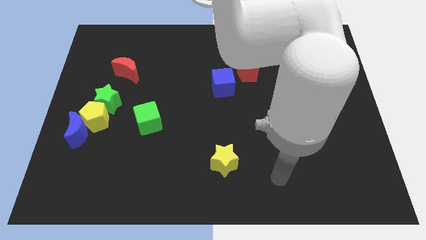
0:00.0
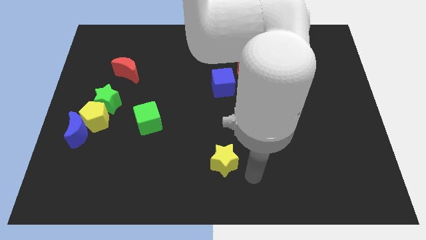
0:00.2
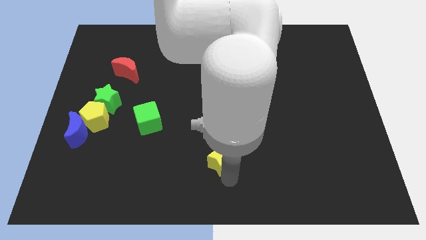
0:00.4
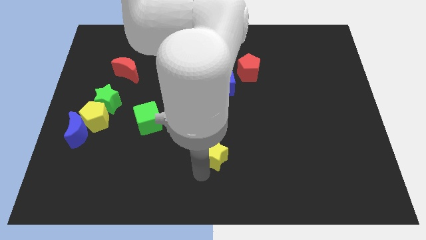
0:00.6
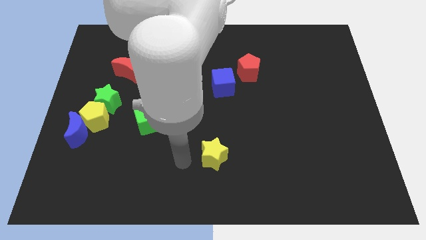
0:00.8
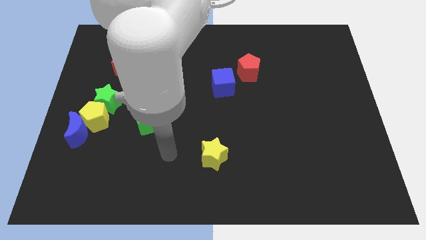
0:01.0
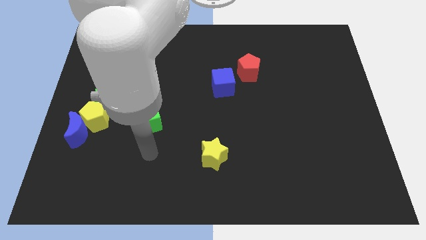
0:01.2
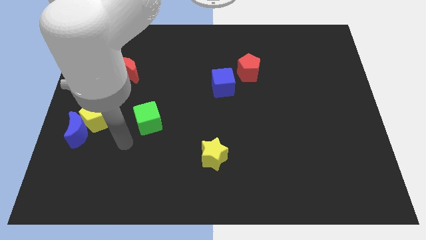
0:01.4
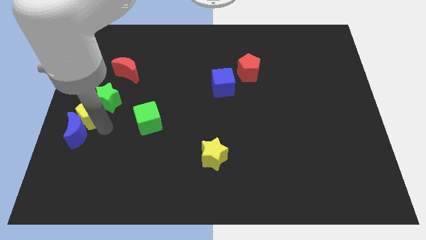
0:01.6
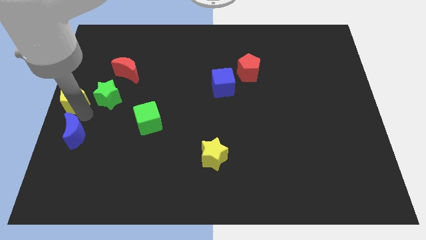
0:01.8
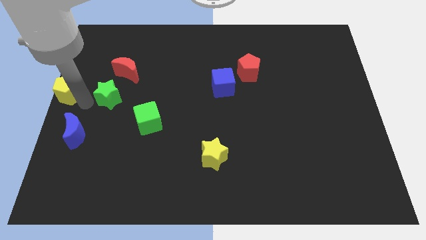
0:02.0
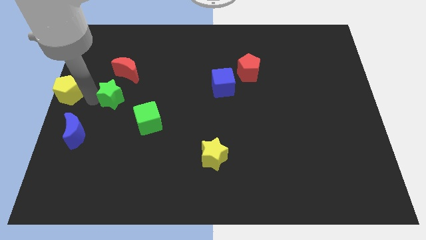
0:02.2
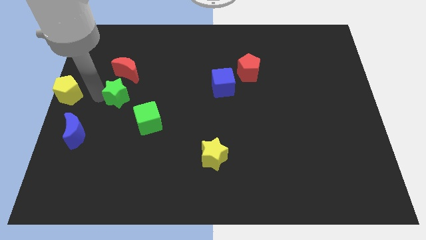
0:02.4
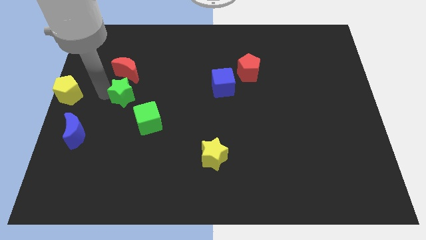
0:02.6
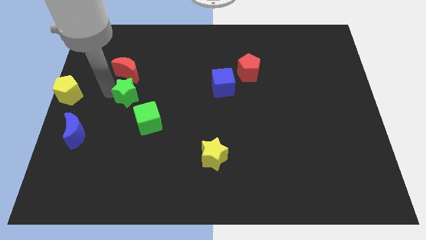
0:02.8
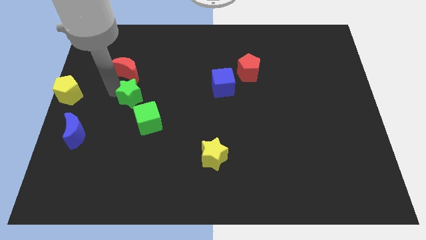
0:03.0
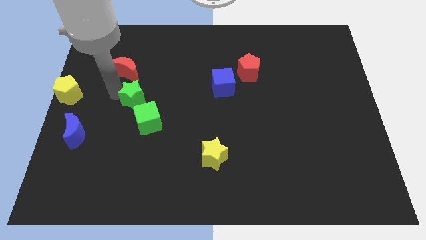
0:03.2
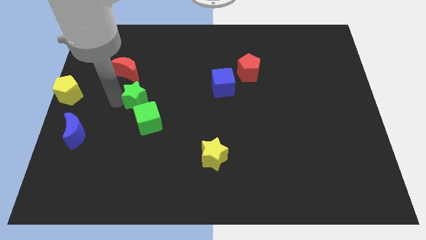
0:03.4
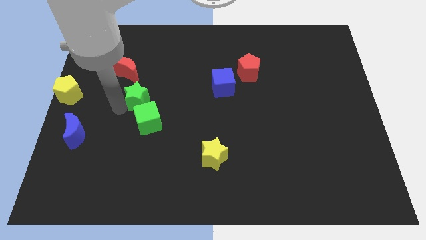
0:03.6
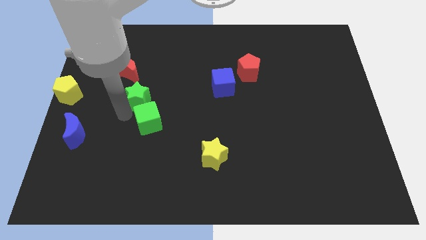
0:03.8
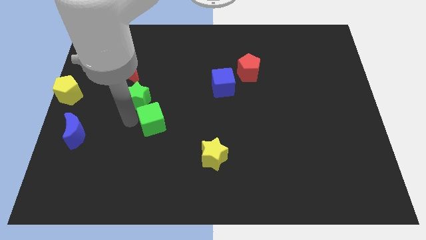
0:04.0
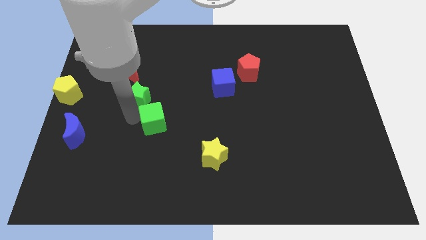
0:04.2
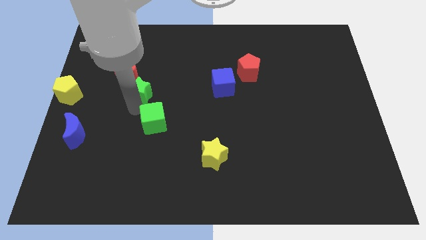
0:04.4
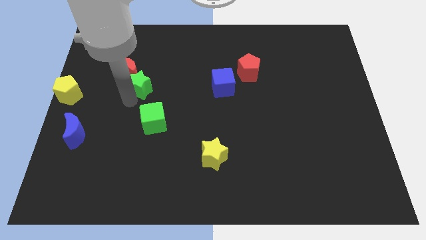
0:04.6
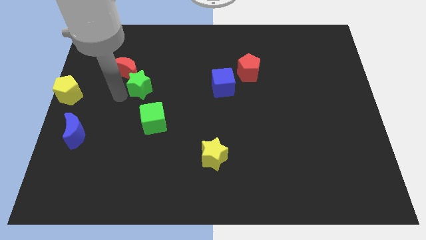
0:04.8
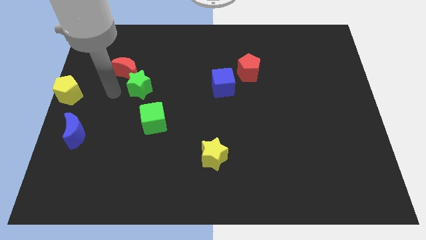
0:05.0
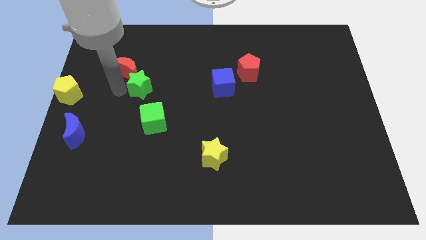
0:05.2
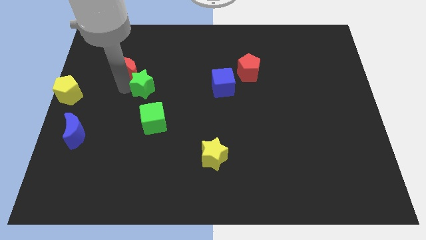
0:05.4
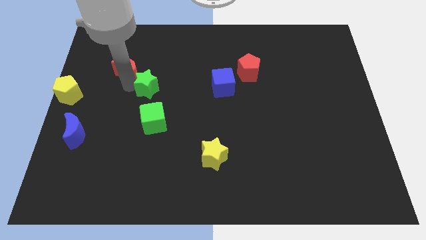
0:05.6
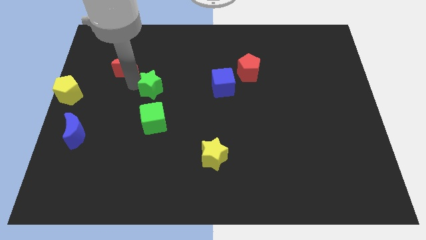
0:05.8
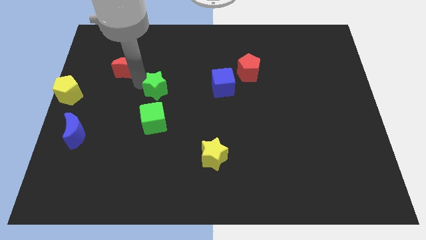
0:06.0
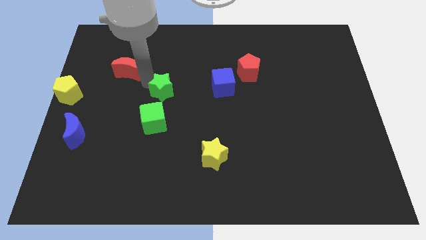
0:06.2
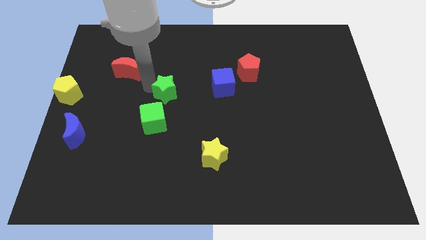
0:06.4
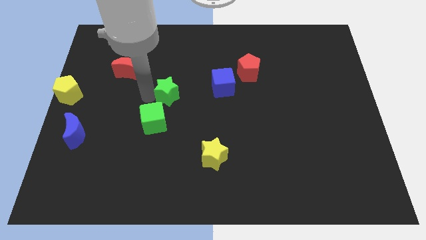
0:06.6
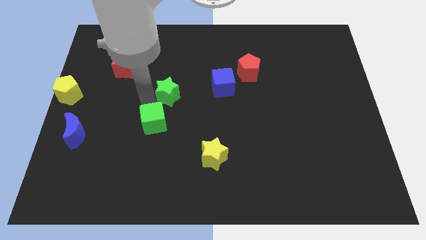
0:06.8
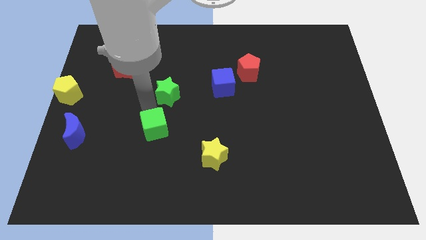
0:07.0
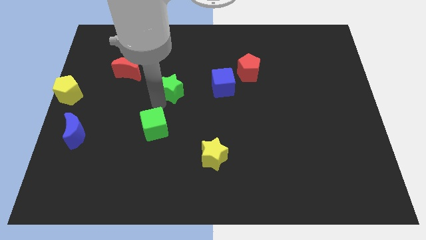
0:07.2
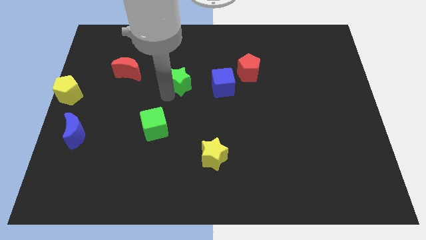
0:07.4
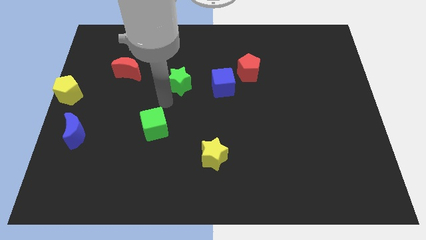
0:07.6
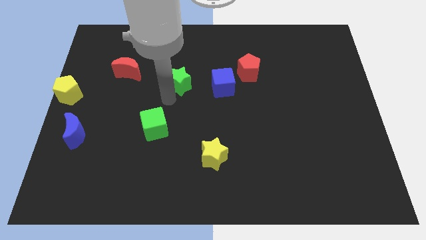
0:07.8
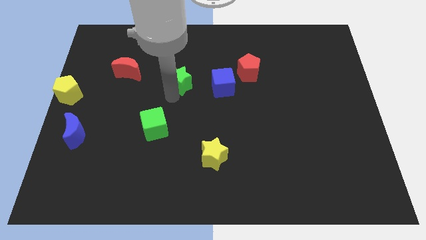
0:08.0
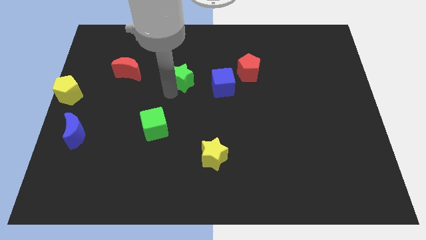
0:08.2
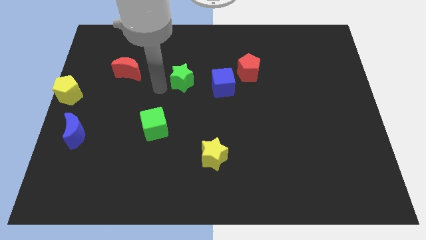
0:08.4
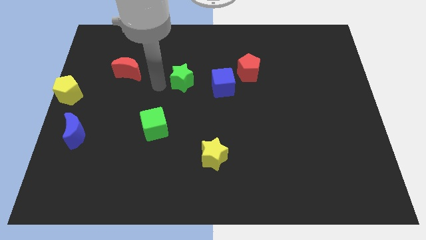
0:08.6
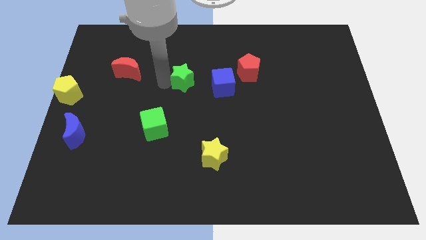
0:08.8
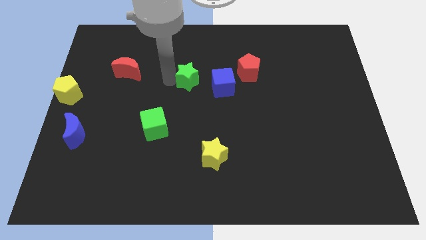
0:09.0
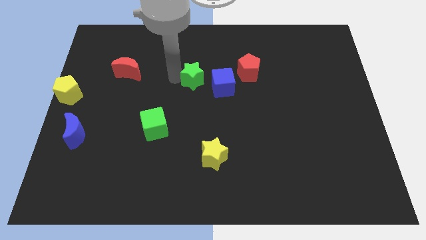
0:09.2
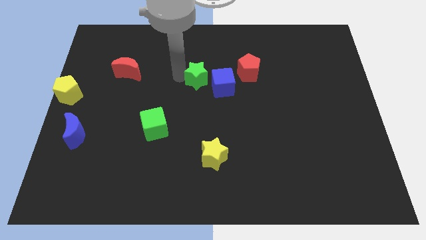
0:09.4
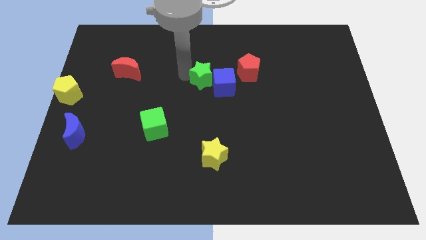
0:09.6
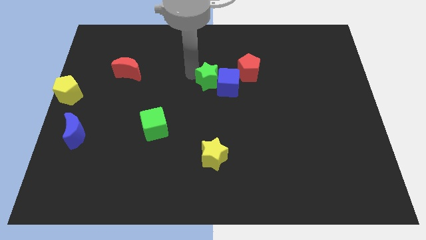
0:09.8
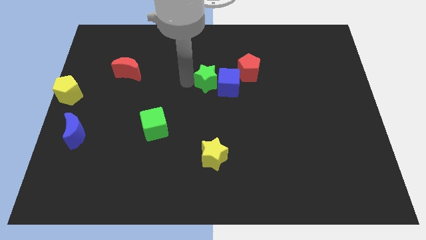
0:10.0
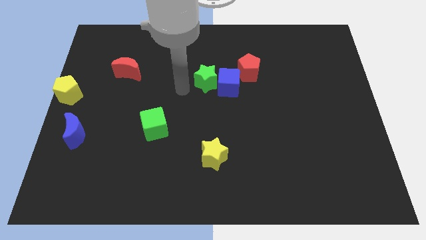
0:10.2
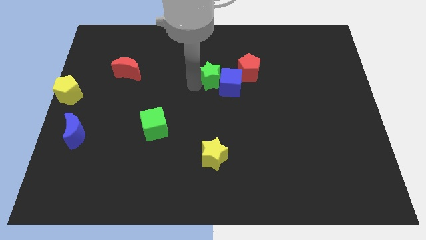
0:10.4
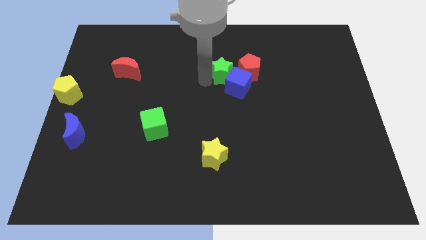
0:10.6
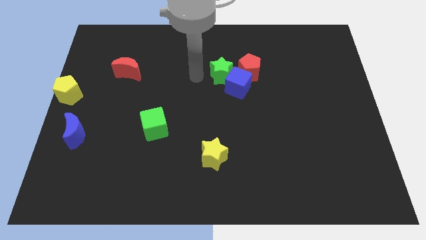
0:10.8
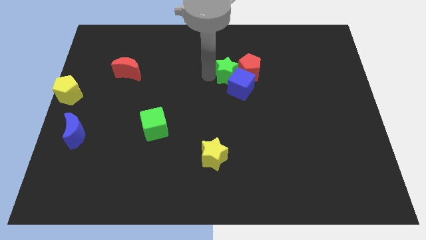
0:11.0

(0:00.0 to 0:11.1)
put the green star next to the red pentagon

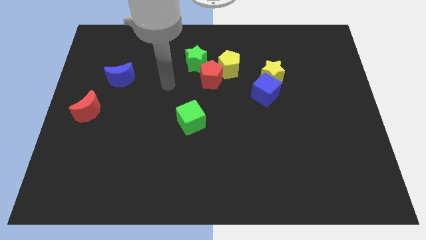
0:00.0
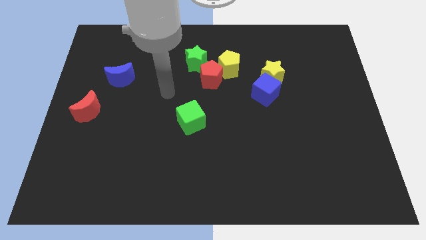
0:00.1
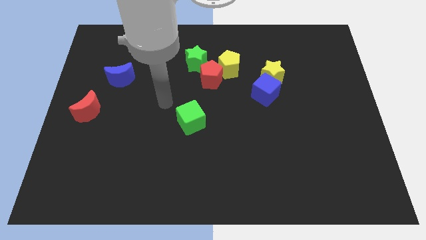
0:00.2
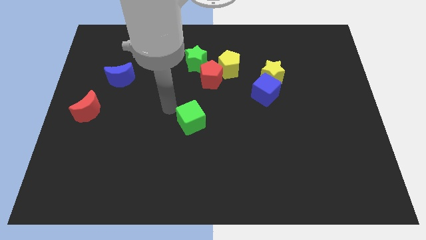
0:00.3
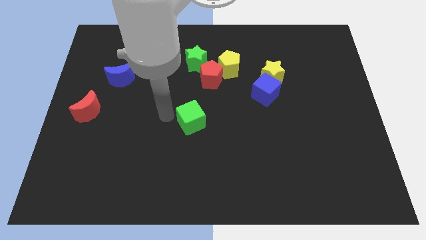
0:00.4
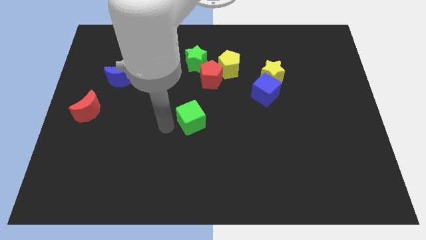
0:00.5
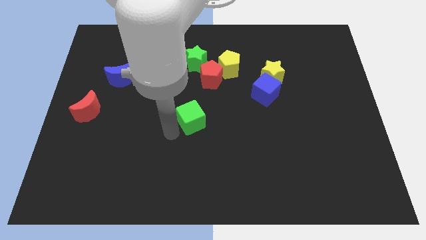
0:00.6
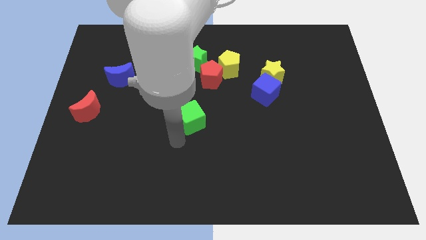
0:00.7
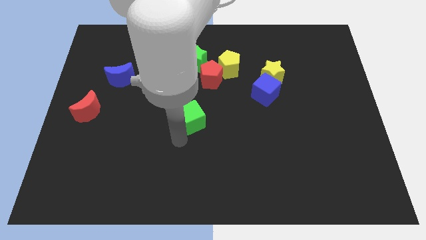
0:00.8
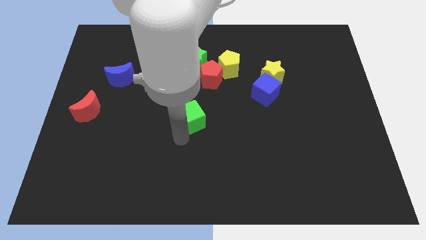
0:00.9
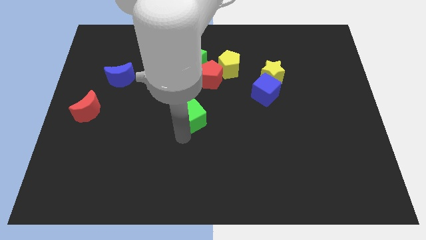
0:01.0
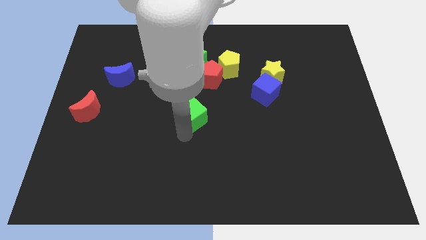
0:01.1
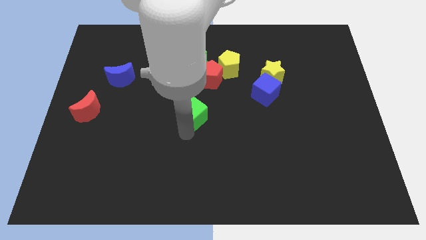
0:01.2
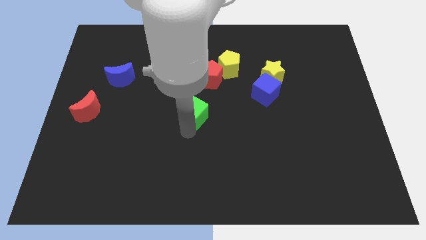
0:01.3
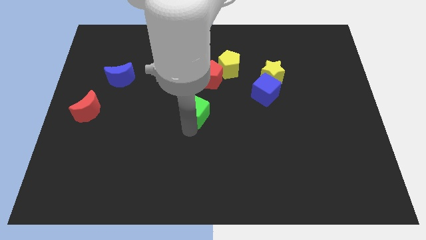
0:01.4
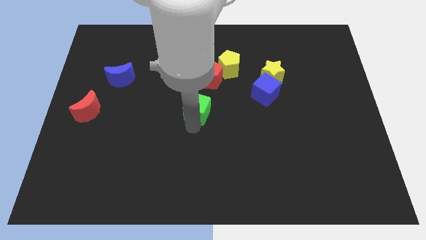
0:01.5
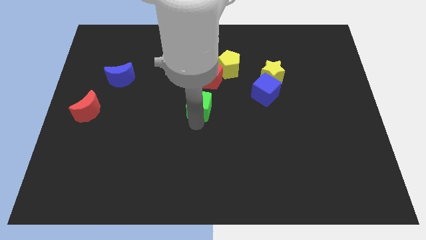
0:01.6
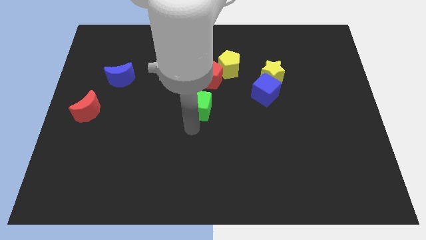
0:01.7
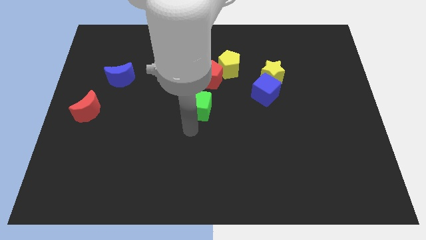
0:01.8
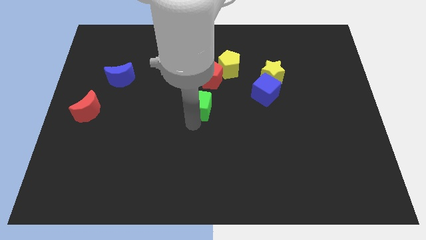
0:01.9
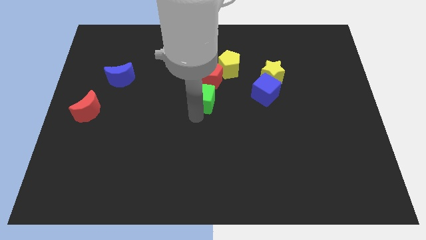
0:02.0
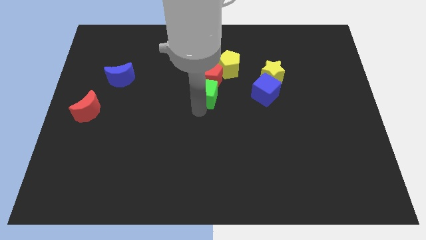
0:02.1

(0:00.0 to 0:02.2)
move the green cube close to the red pentagon
